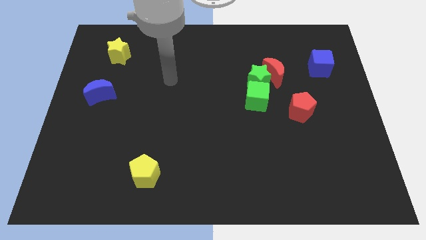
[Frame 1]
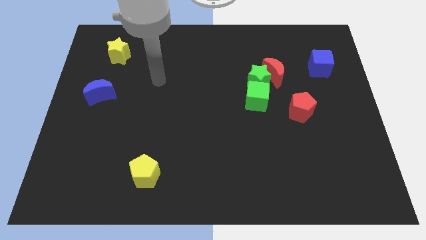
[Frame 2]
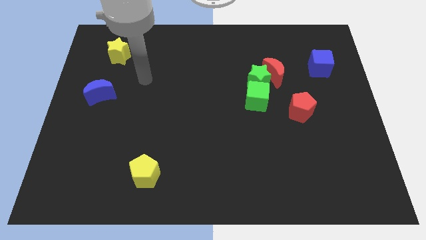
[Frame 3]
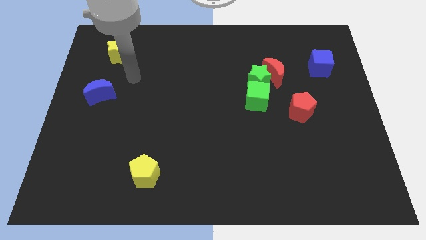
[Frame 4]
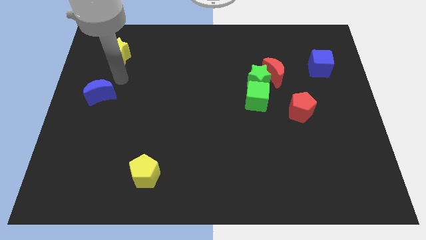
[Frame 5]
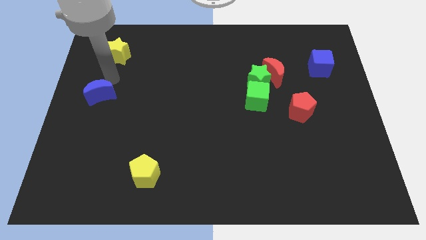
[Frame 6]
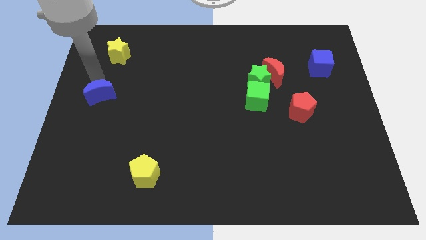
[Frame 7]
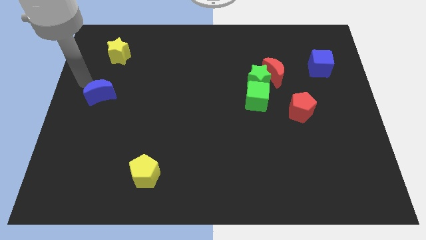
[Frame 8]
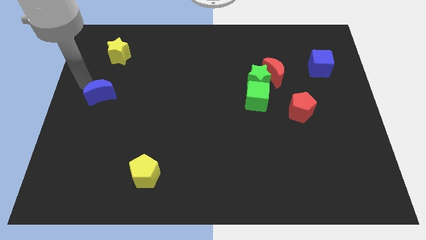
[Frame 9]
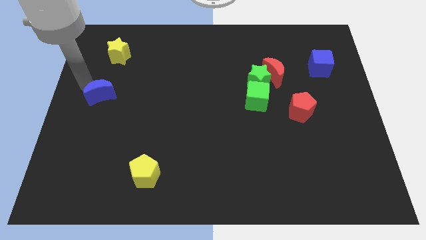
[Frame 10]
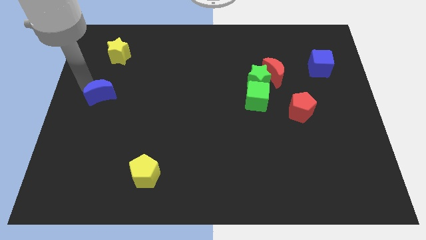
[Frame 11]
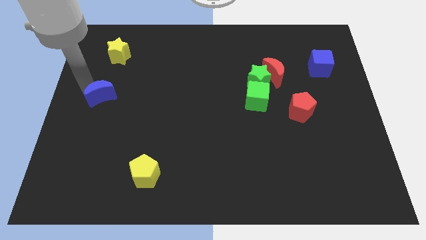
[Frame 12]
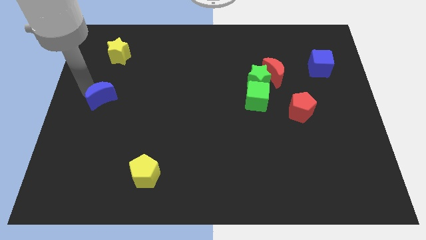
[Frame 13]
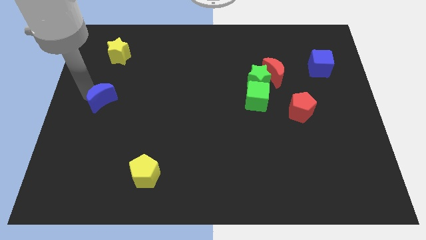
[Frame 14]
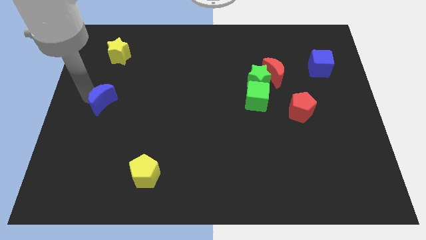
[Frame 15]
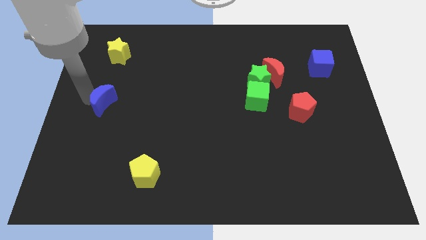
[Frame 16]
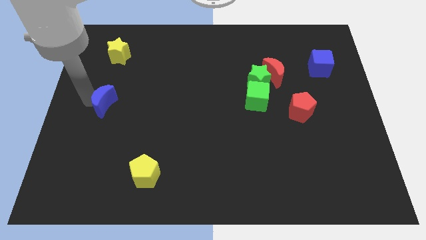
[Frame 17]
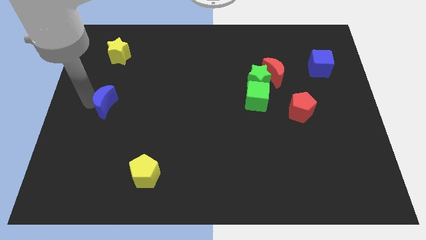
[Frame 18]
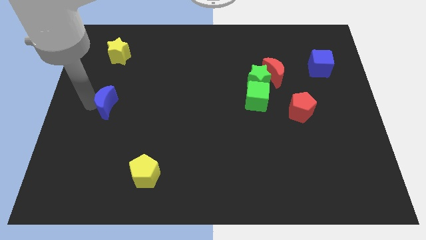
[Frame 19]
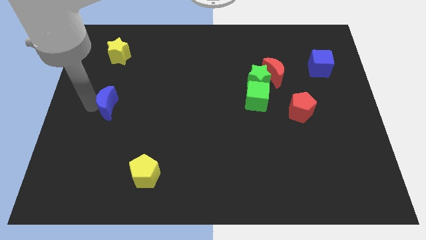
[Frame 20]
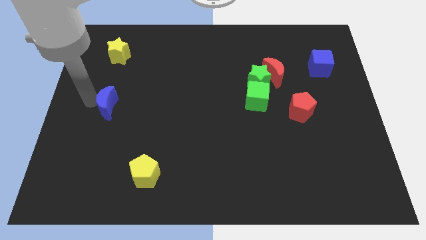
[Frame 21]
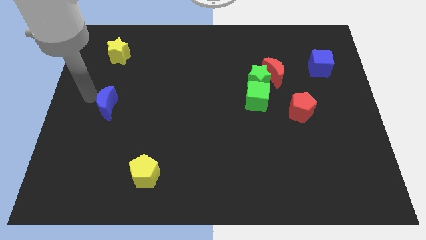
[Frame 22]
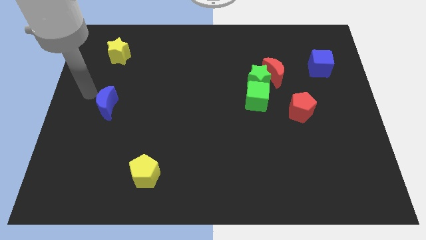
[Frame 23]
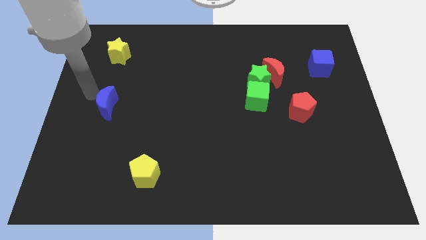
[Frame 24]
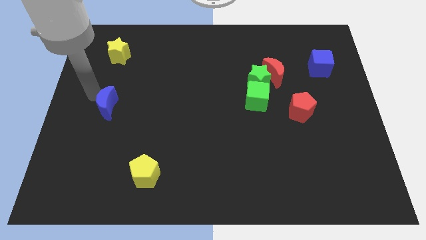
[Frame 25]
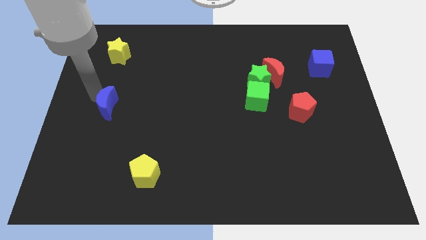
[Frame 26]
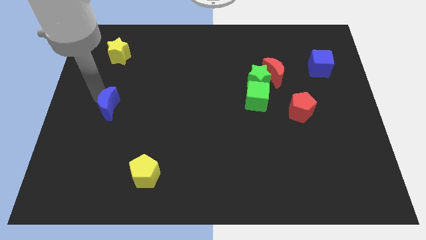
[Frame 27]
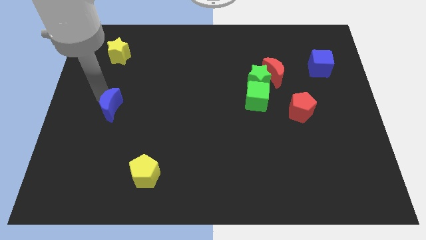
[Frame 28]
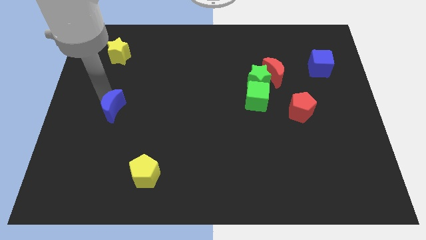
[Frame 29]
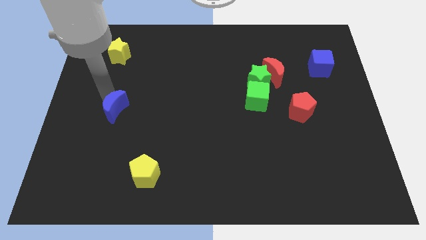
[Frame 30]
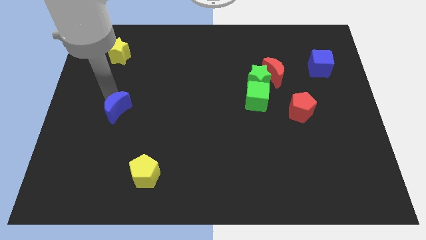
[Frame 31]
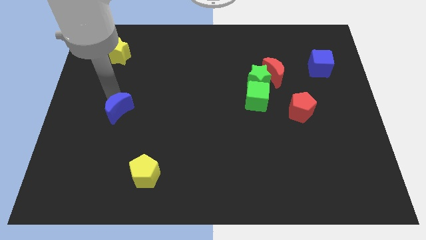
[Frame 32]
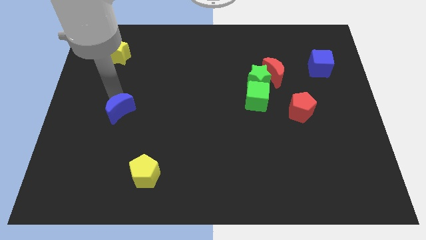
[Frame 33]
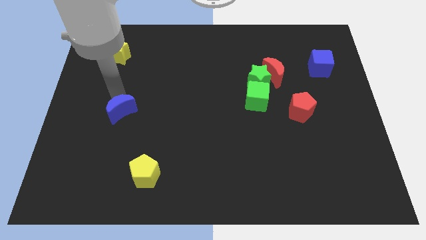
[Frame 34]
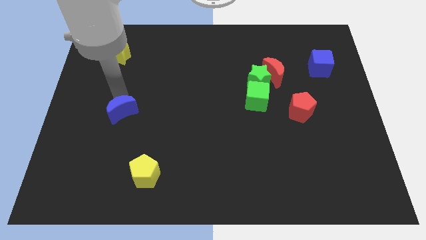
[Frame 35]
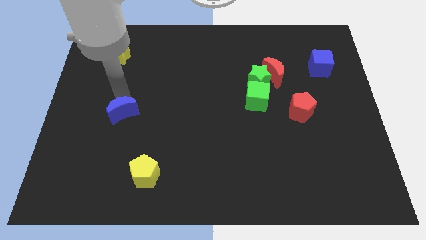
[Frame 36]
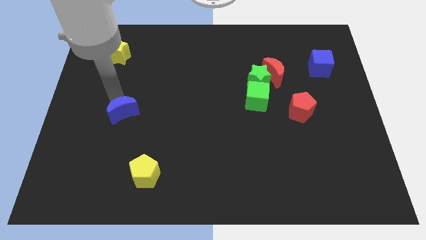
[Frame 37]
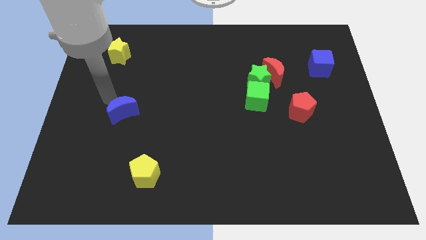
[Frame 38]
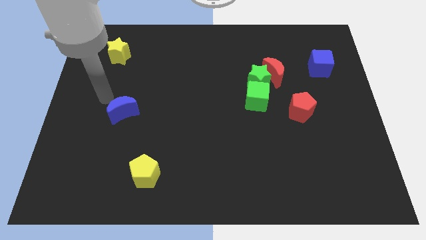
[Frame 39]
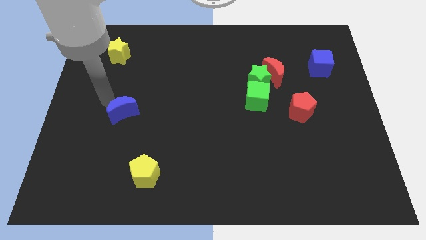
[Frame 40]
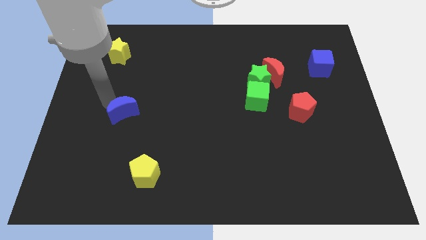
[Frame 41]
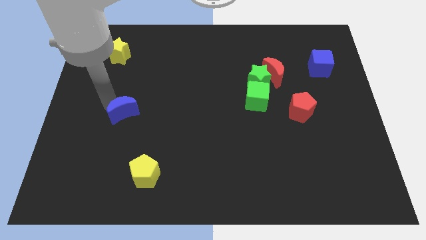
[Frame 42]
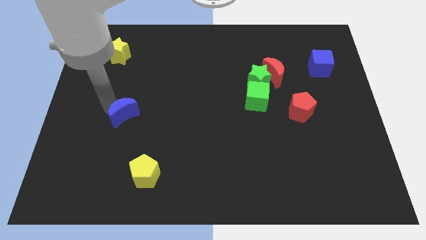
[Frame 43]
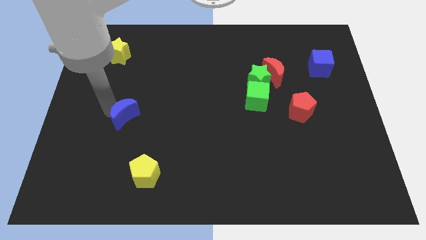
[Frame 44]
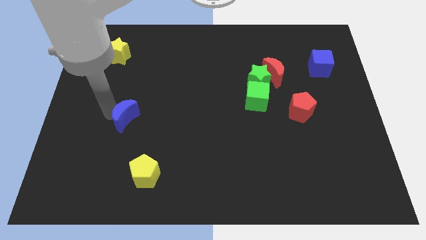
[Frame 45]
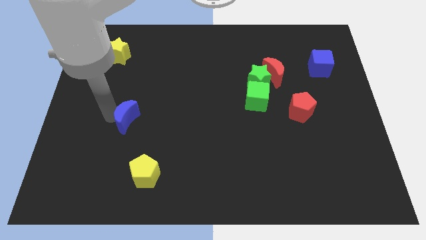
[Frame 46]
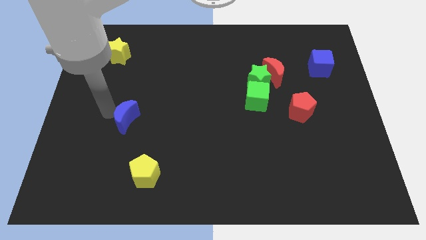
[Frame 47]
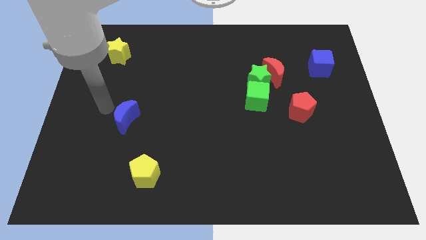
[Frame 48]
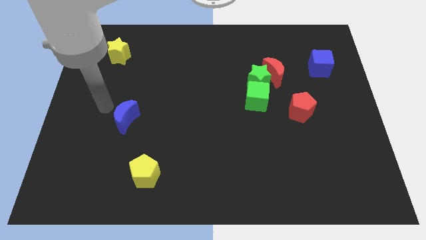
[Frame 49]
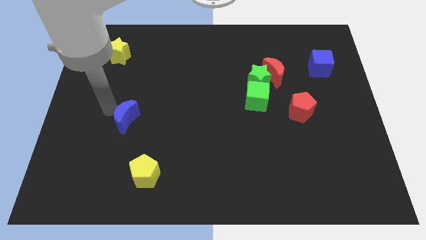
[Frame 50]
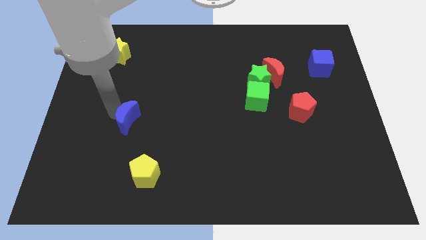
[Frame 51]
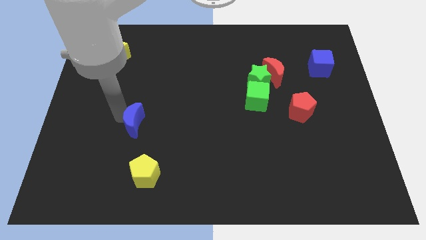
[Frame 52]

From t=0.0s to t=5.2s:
push the blue moon to the top side of the yellow pentagon

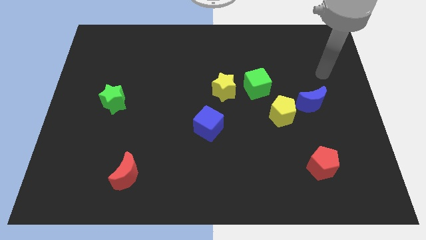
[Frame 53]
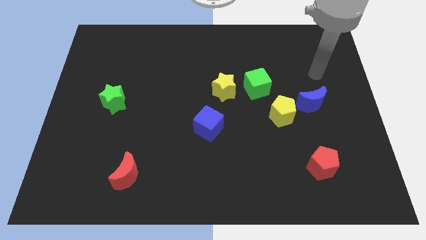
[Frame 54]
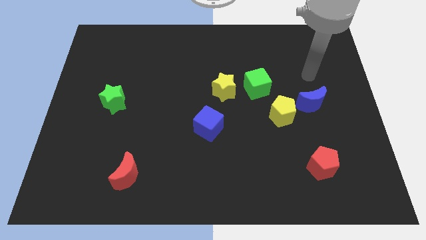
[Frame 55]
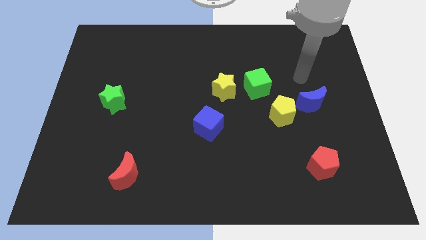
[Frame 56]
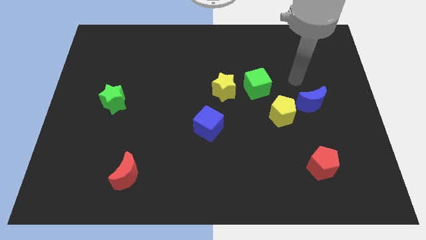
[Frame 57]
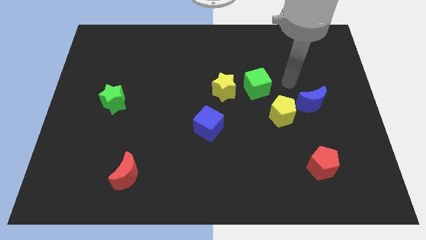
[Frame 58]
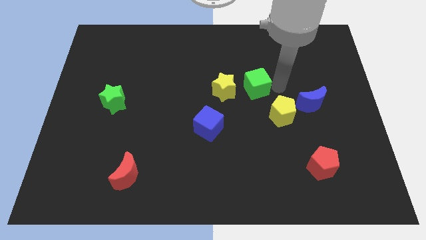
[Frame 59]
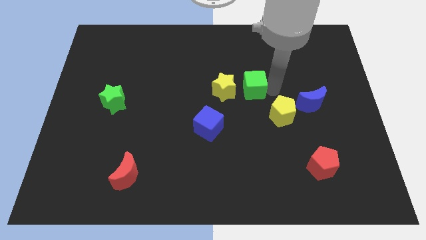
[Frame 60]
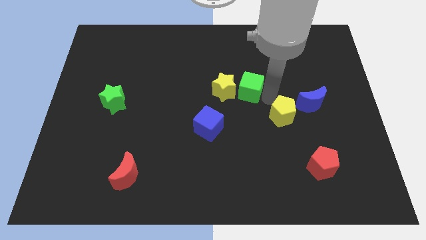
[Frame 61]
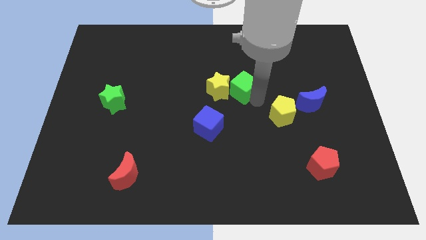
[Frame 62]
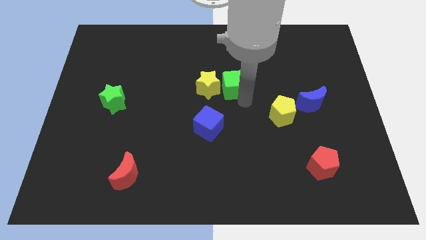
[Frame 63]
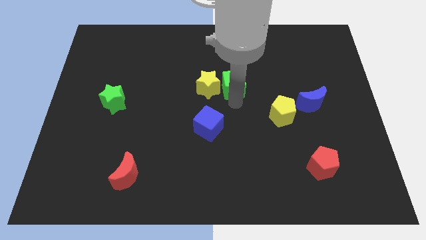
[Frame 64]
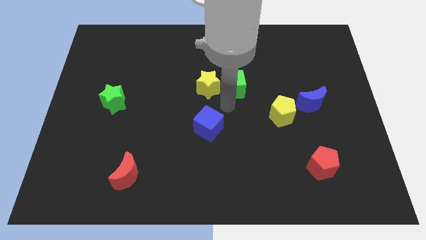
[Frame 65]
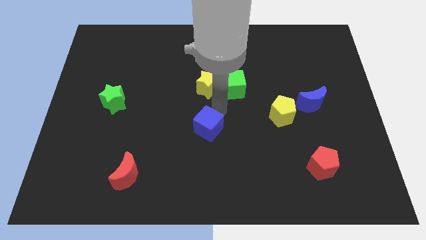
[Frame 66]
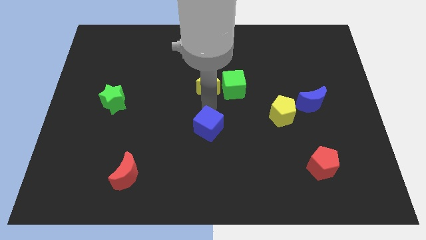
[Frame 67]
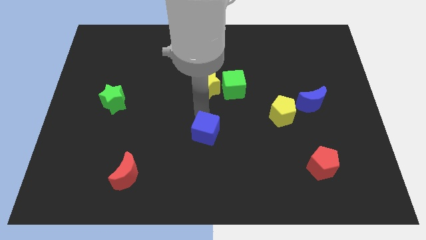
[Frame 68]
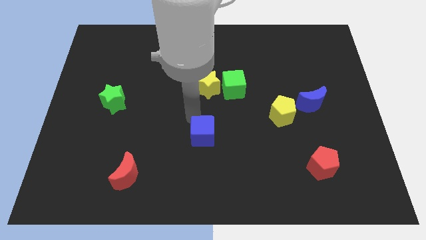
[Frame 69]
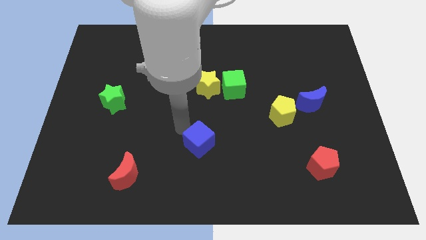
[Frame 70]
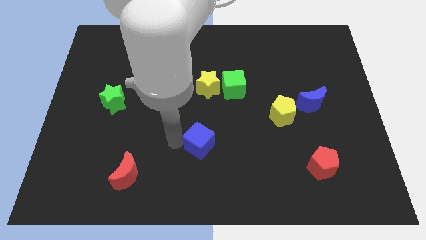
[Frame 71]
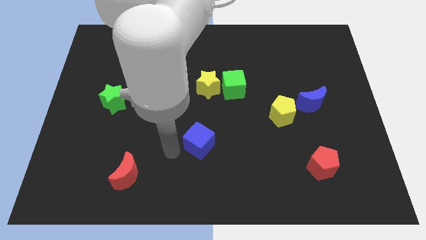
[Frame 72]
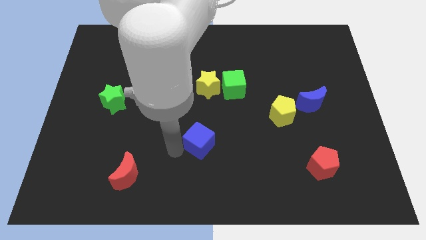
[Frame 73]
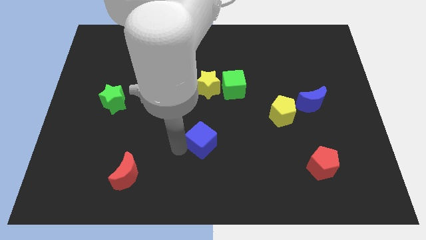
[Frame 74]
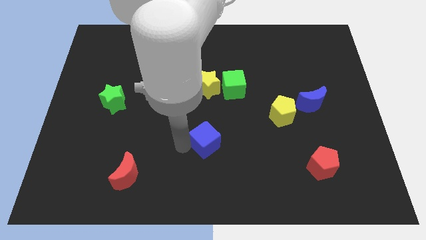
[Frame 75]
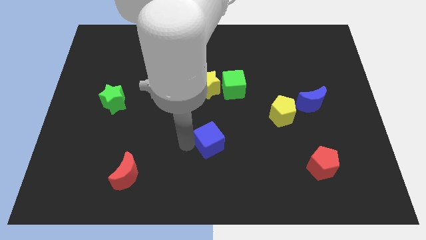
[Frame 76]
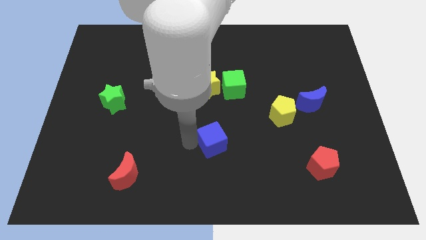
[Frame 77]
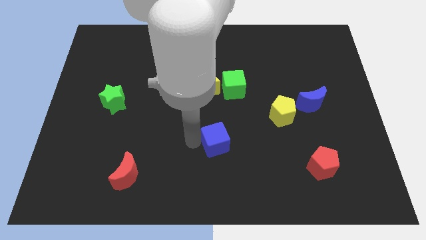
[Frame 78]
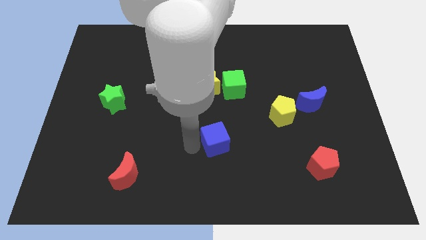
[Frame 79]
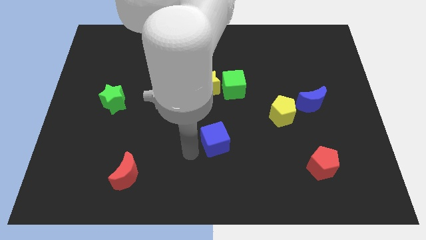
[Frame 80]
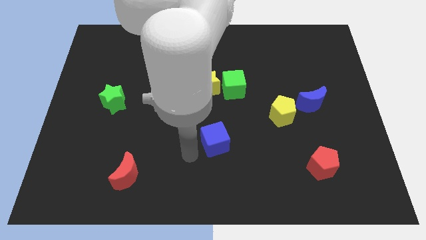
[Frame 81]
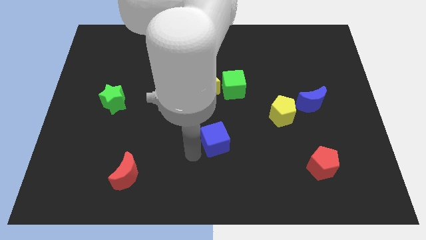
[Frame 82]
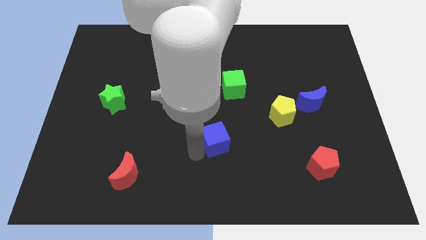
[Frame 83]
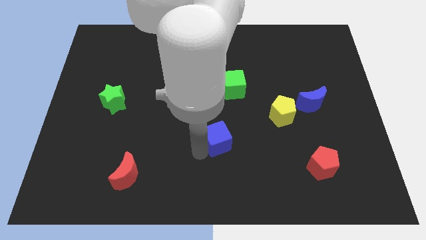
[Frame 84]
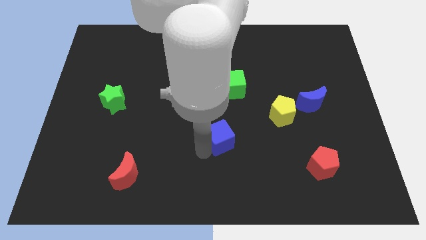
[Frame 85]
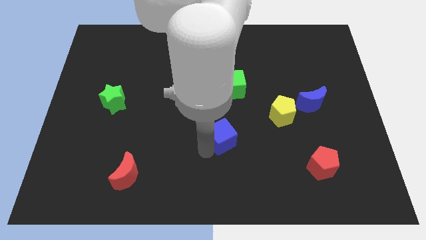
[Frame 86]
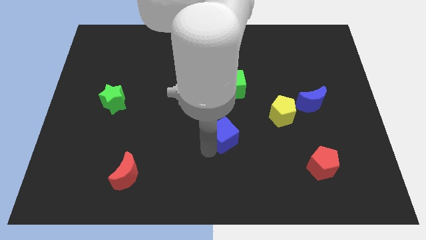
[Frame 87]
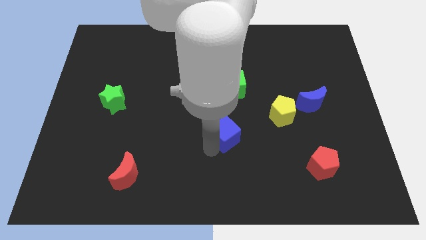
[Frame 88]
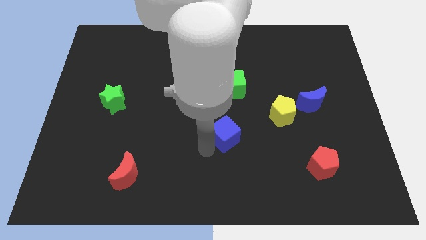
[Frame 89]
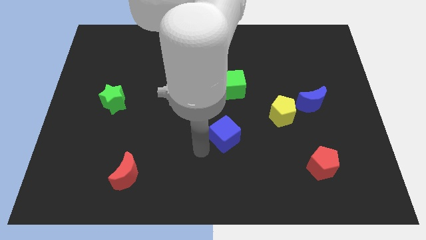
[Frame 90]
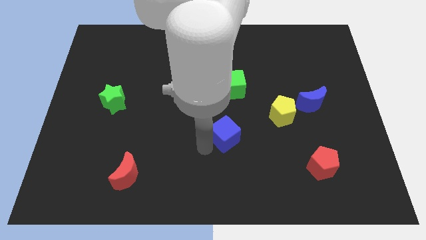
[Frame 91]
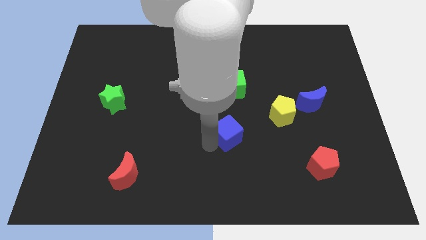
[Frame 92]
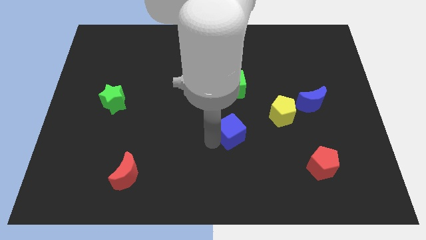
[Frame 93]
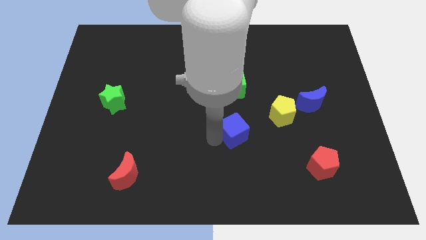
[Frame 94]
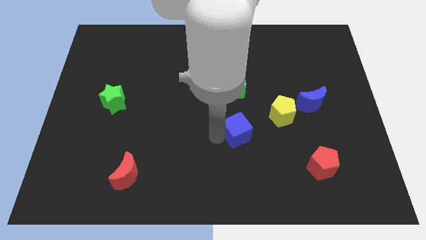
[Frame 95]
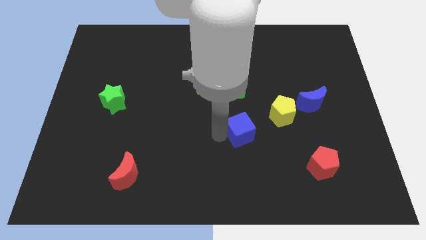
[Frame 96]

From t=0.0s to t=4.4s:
move the blue cube to the bottom left side of the yellow pentagon
